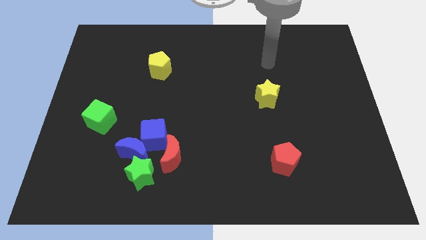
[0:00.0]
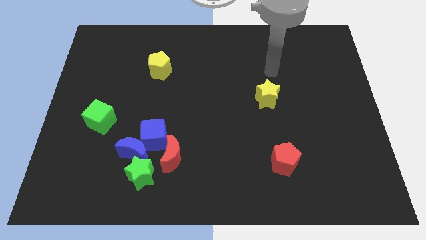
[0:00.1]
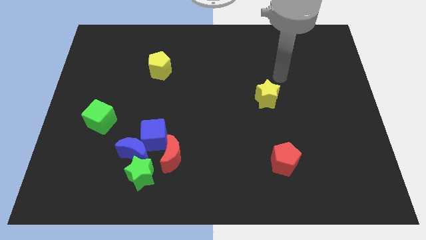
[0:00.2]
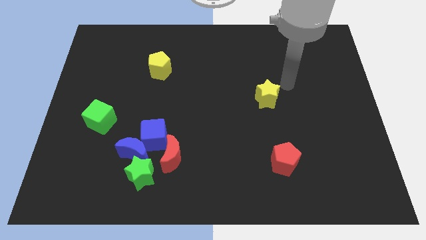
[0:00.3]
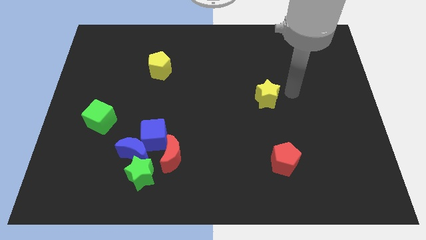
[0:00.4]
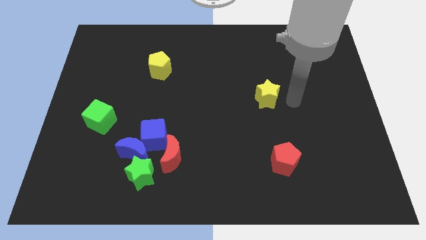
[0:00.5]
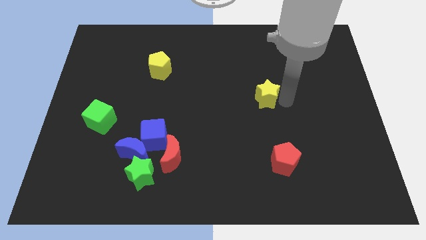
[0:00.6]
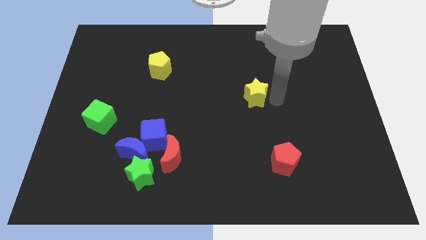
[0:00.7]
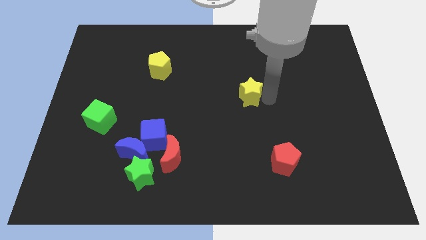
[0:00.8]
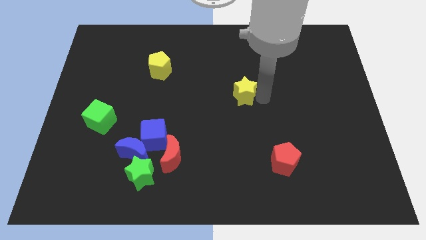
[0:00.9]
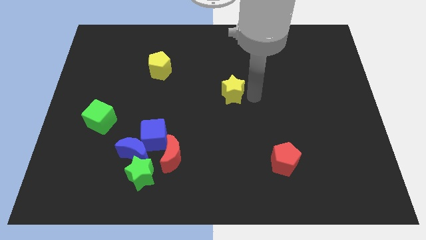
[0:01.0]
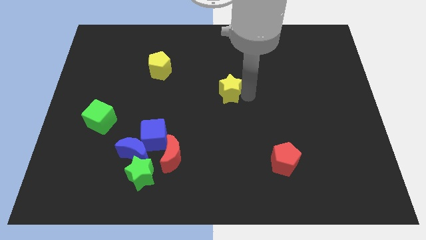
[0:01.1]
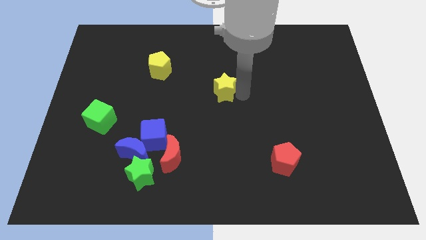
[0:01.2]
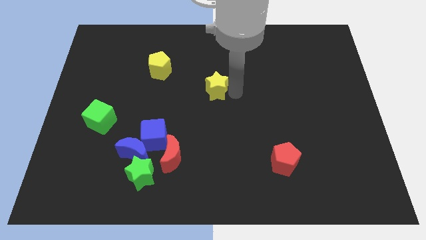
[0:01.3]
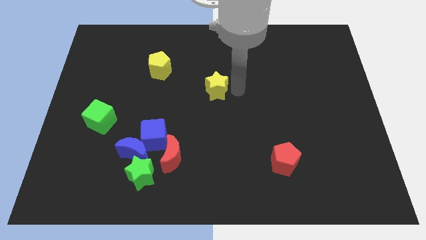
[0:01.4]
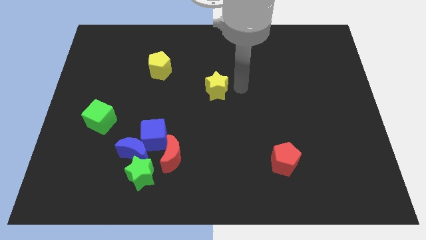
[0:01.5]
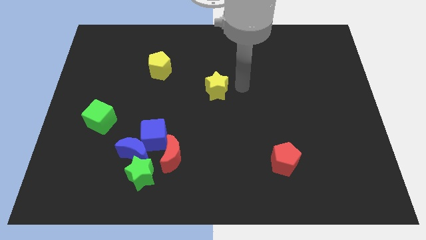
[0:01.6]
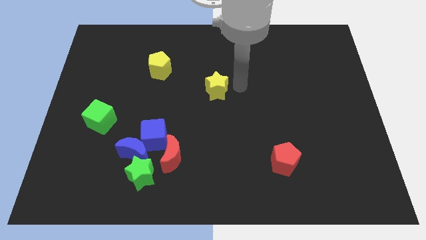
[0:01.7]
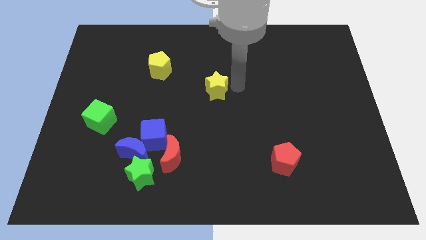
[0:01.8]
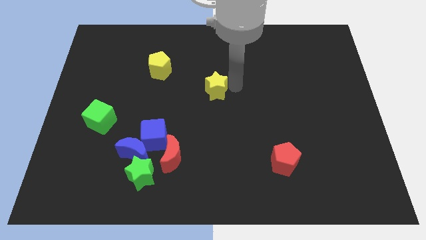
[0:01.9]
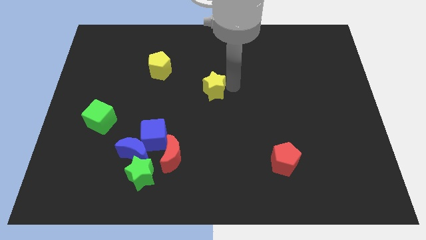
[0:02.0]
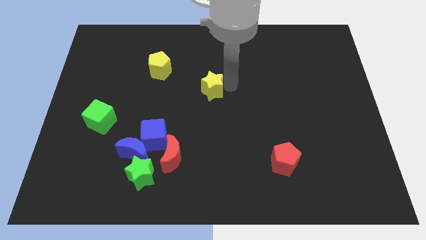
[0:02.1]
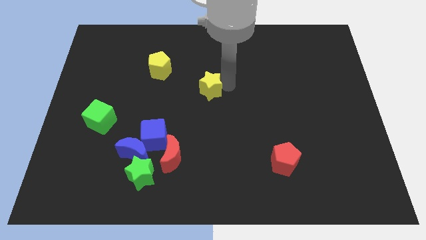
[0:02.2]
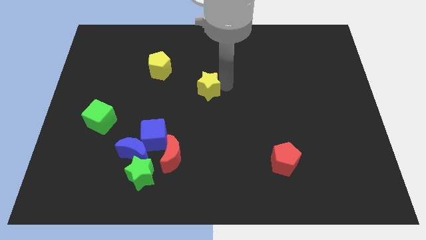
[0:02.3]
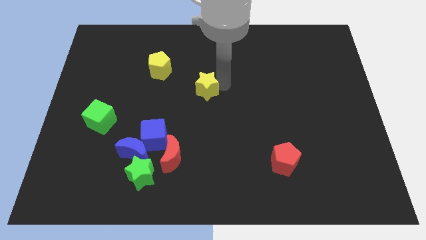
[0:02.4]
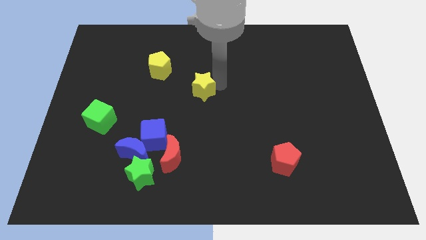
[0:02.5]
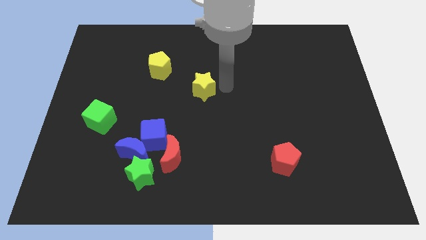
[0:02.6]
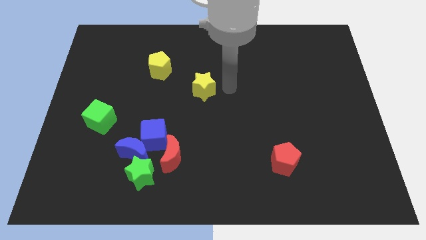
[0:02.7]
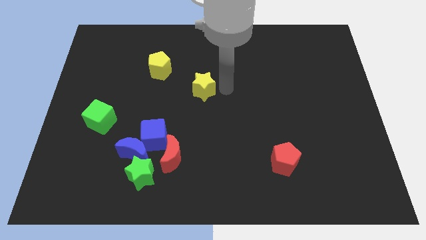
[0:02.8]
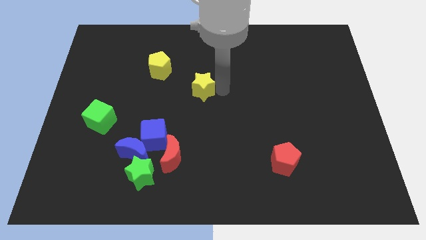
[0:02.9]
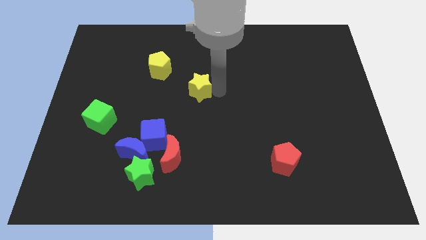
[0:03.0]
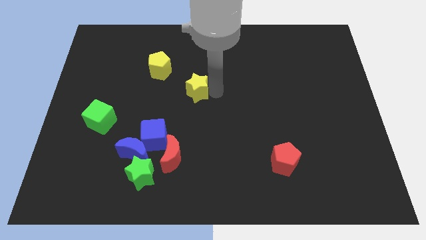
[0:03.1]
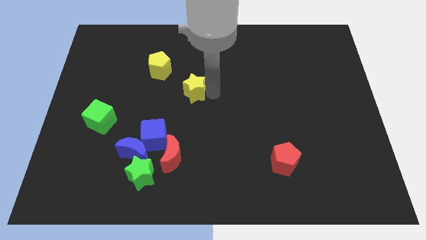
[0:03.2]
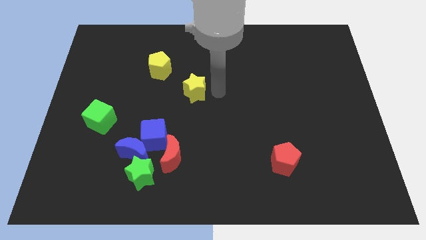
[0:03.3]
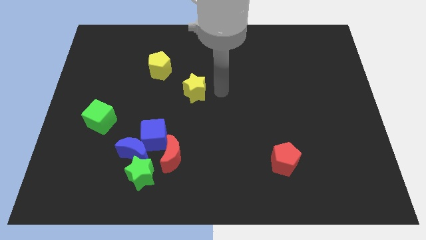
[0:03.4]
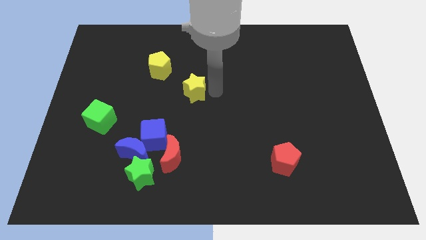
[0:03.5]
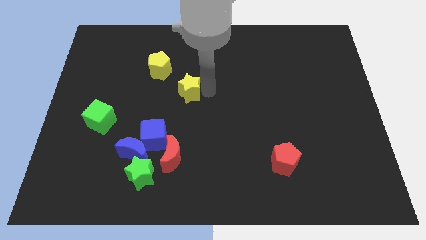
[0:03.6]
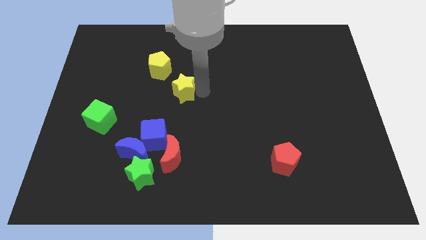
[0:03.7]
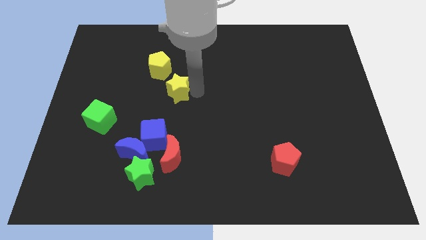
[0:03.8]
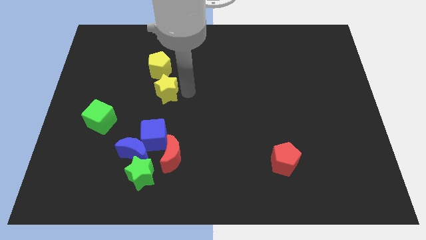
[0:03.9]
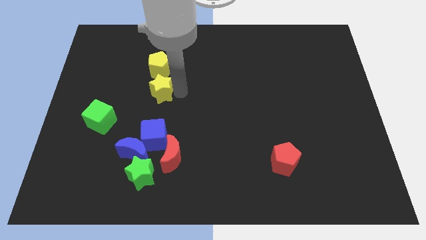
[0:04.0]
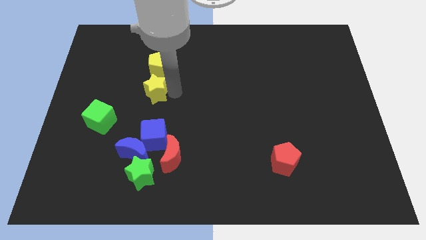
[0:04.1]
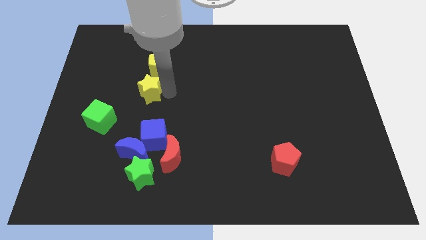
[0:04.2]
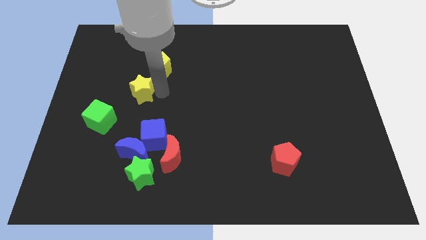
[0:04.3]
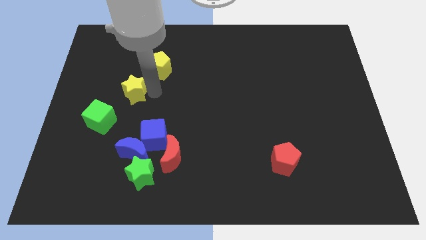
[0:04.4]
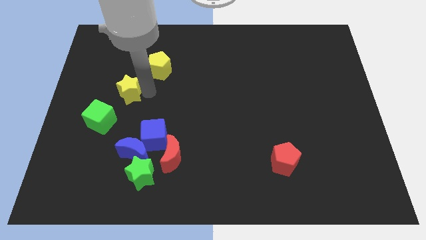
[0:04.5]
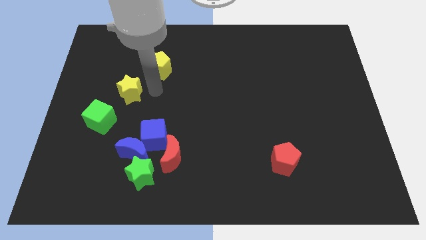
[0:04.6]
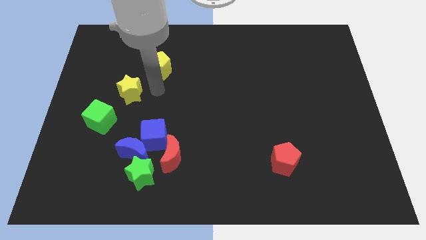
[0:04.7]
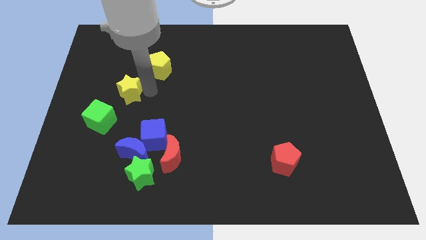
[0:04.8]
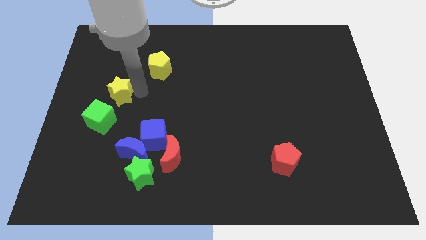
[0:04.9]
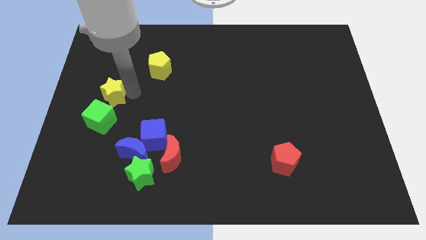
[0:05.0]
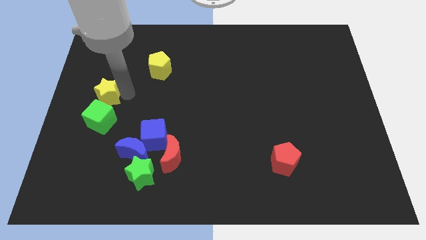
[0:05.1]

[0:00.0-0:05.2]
move the yellow star to the left side of the board

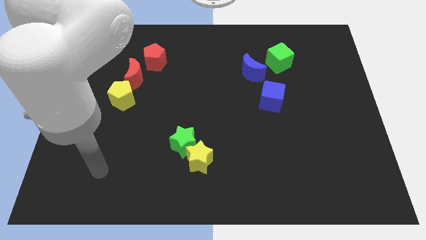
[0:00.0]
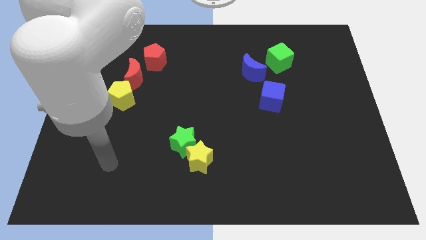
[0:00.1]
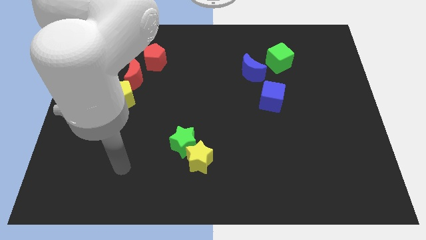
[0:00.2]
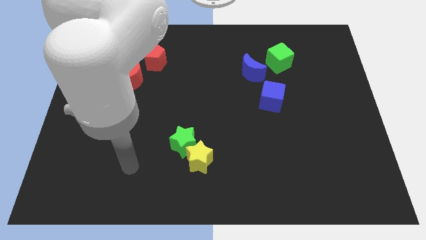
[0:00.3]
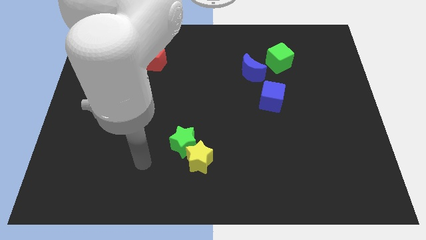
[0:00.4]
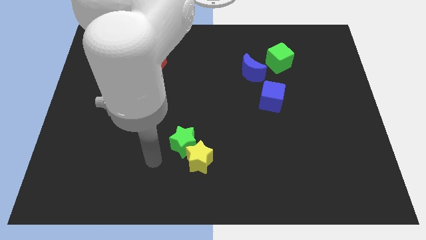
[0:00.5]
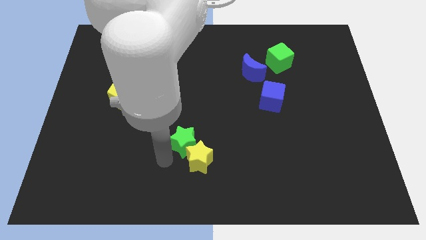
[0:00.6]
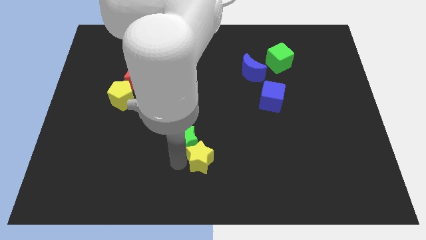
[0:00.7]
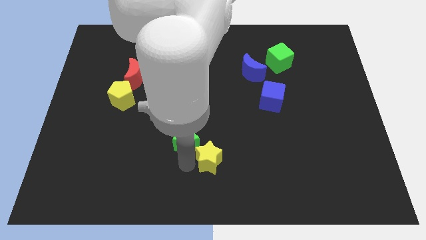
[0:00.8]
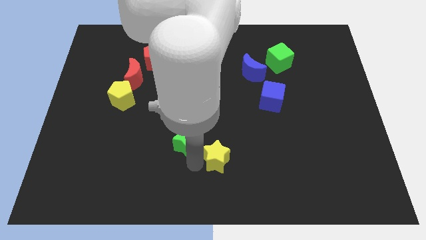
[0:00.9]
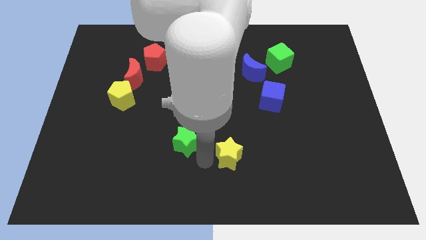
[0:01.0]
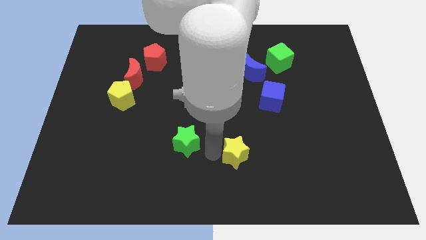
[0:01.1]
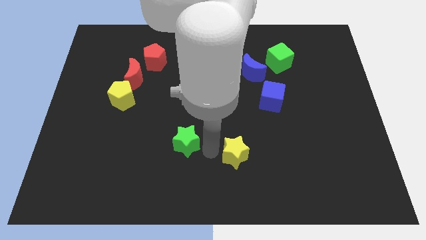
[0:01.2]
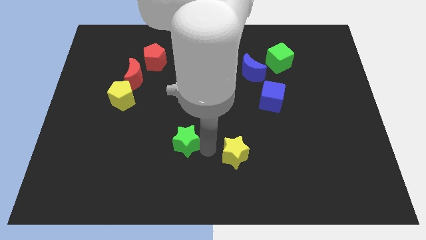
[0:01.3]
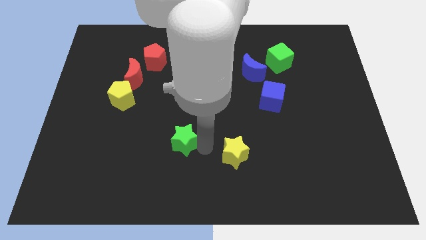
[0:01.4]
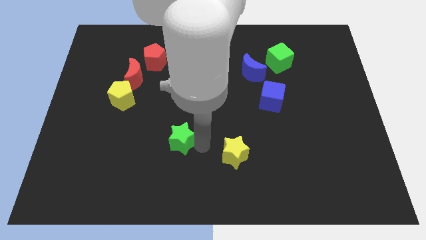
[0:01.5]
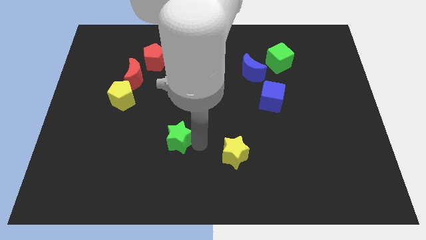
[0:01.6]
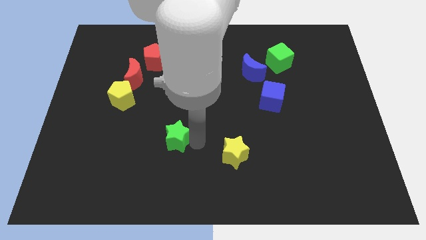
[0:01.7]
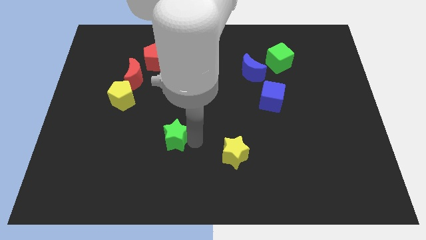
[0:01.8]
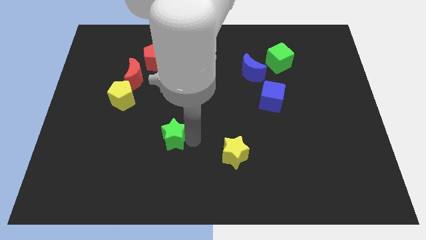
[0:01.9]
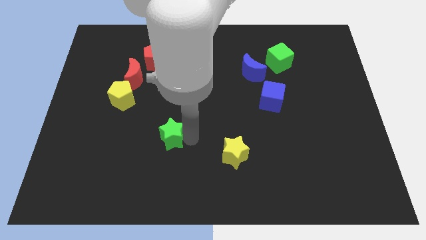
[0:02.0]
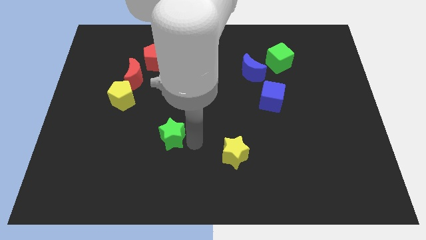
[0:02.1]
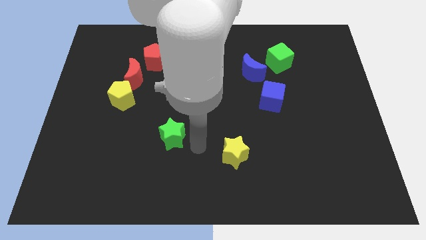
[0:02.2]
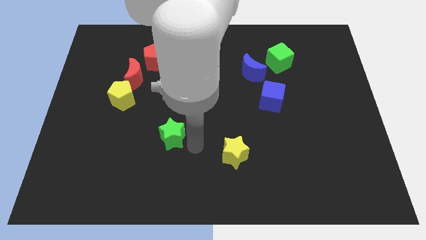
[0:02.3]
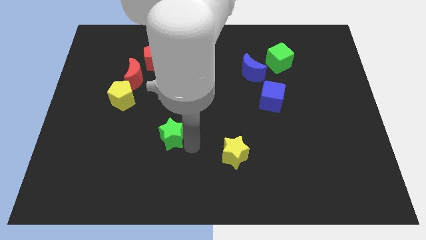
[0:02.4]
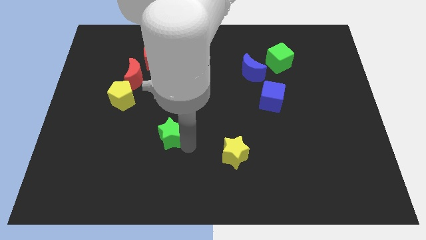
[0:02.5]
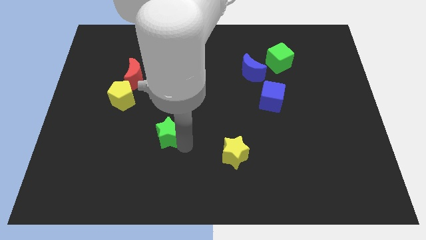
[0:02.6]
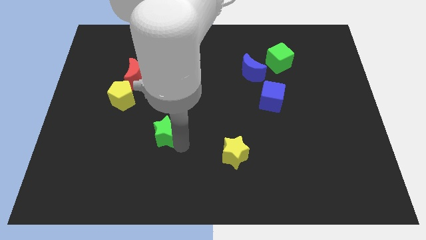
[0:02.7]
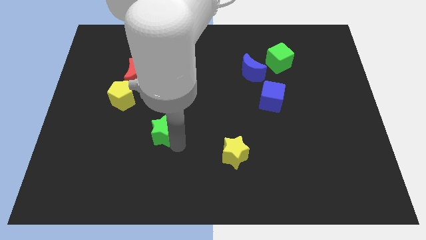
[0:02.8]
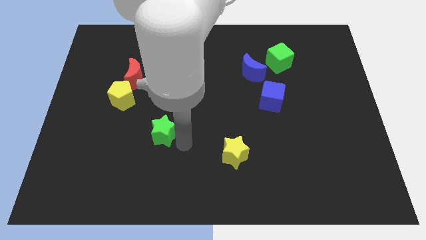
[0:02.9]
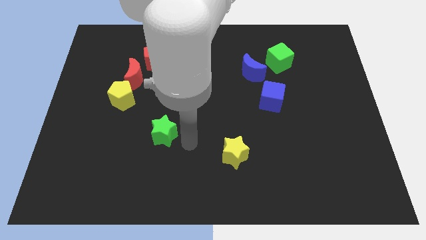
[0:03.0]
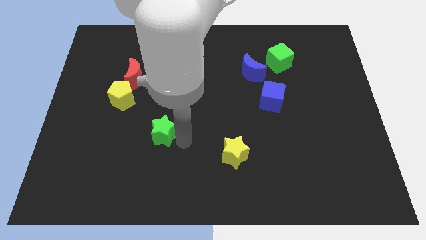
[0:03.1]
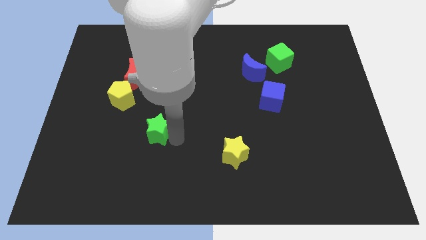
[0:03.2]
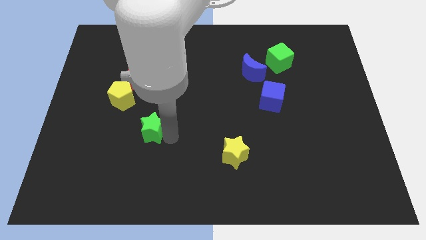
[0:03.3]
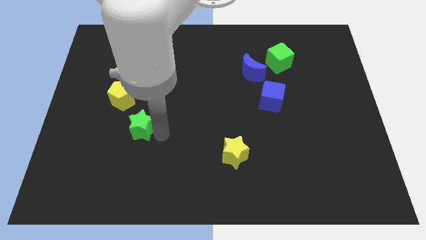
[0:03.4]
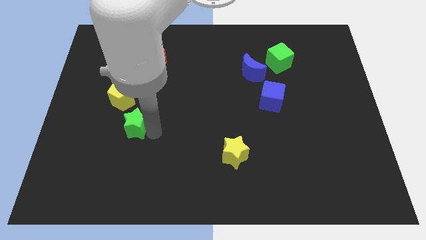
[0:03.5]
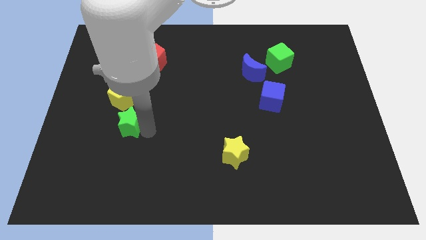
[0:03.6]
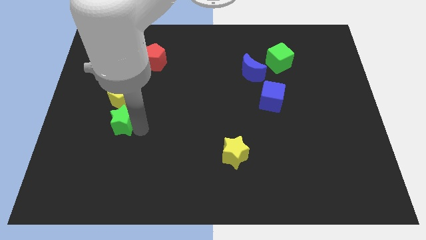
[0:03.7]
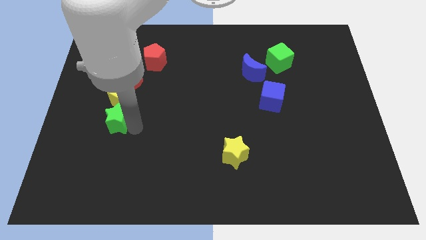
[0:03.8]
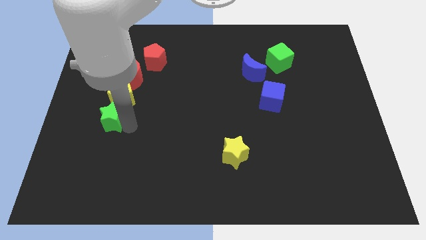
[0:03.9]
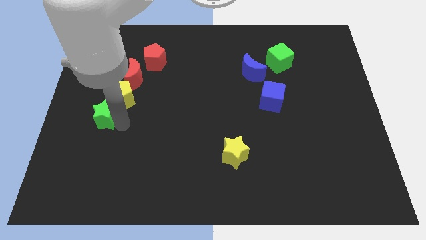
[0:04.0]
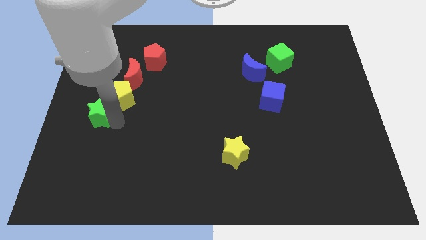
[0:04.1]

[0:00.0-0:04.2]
put the green star to the left side of the board
